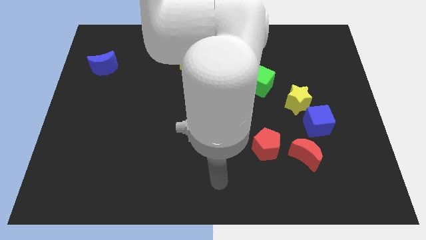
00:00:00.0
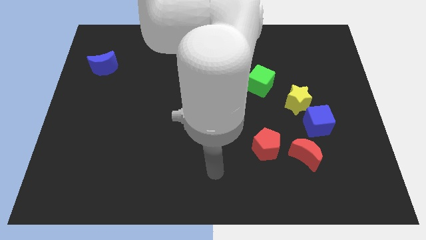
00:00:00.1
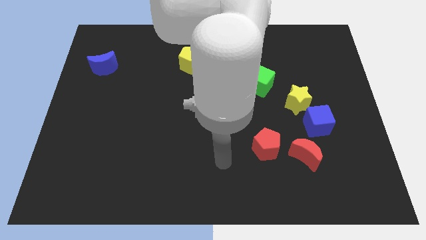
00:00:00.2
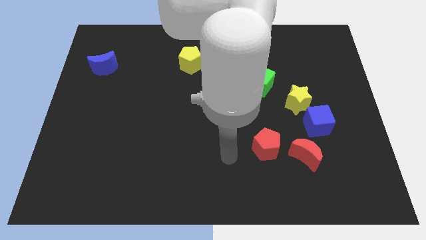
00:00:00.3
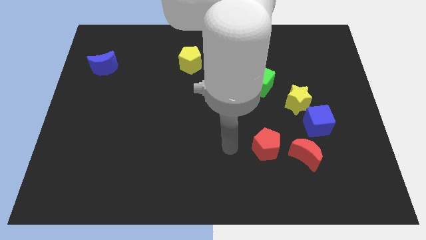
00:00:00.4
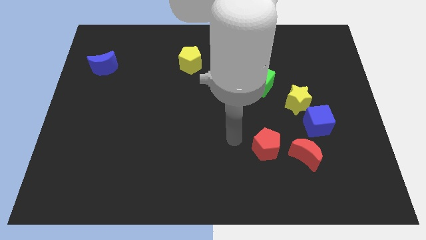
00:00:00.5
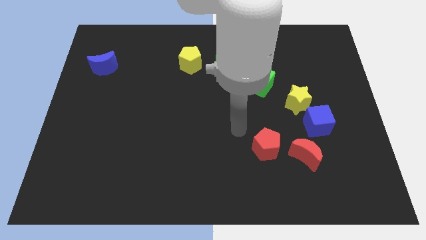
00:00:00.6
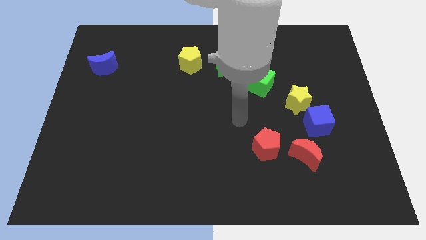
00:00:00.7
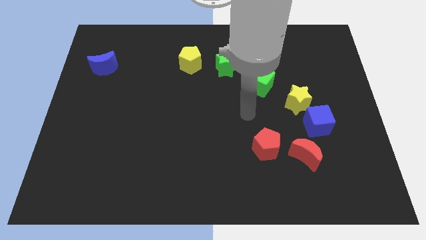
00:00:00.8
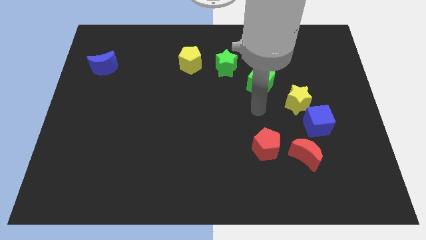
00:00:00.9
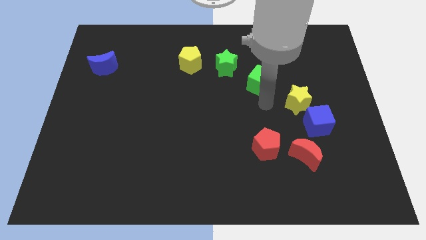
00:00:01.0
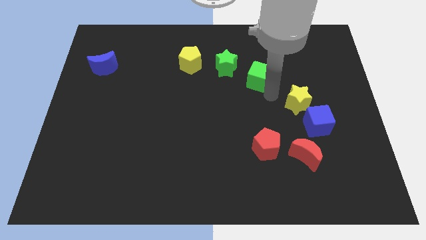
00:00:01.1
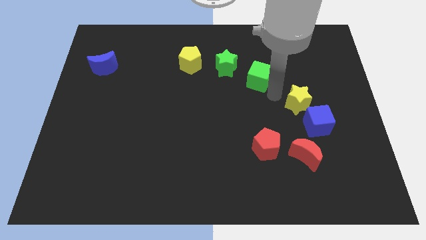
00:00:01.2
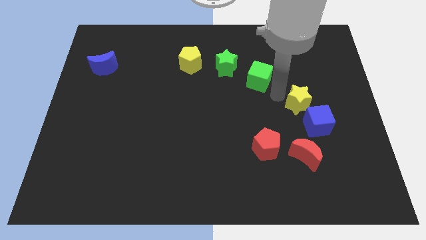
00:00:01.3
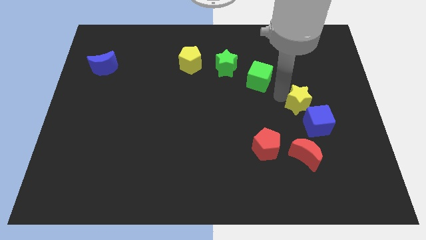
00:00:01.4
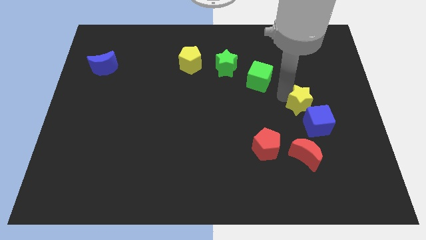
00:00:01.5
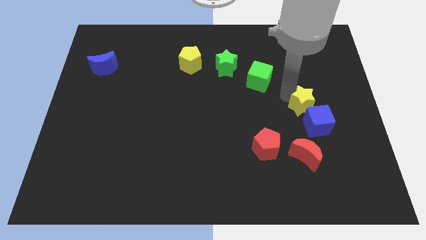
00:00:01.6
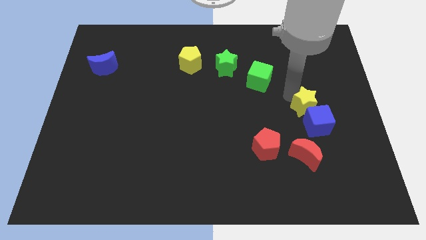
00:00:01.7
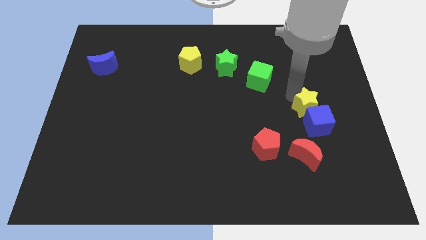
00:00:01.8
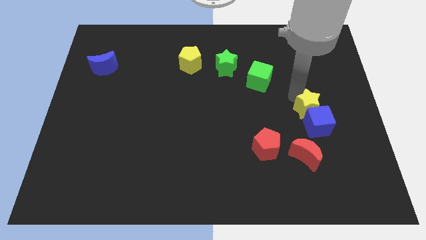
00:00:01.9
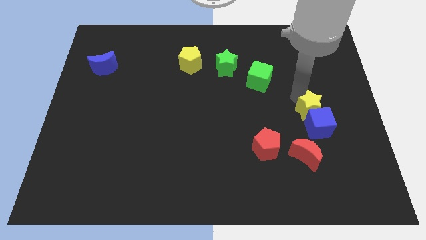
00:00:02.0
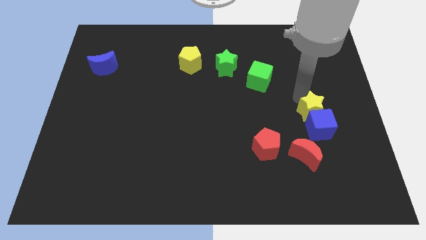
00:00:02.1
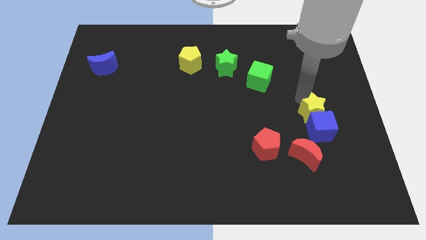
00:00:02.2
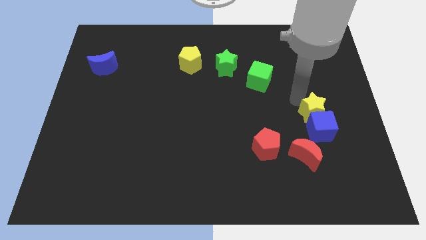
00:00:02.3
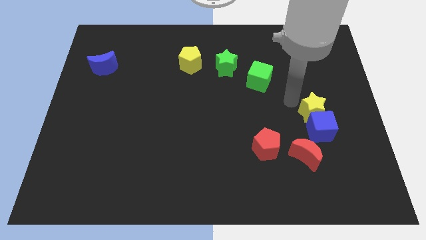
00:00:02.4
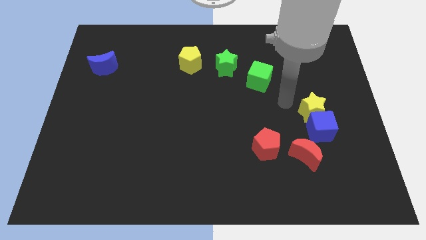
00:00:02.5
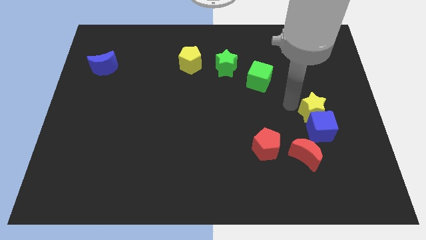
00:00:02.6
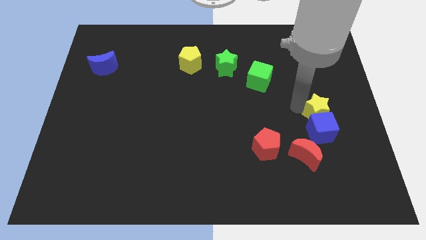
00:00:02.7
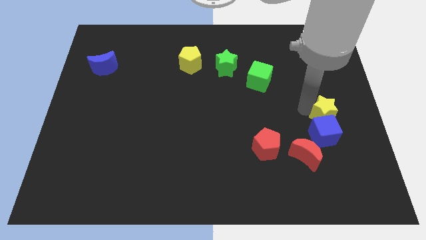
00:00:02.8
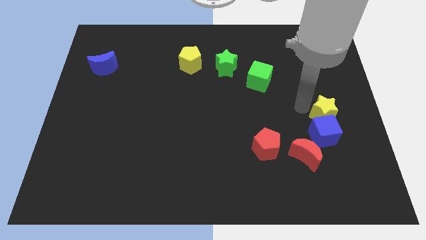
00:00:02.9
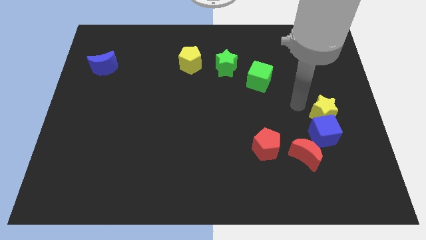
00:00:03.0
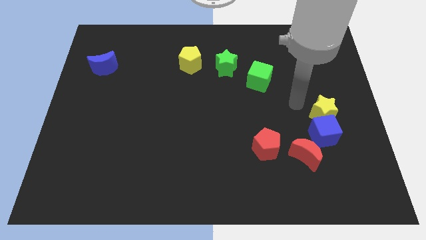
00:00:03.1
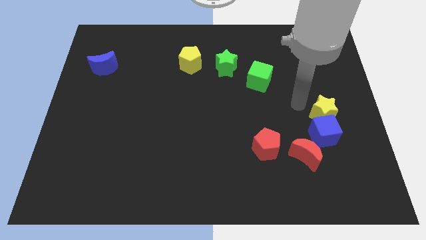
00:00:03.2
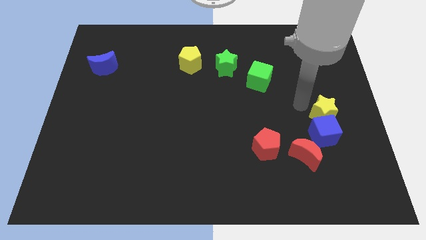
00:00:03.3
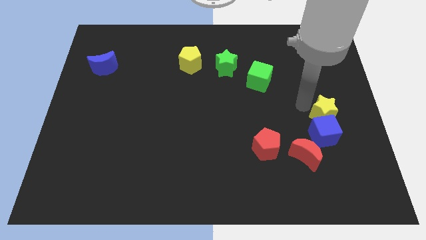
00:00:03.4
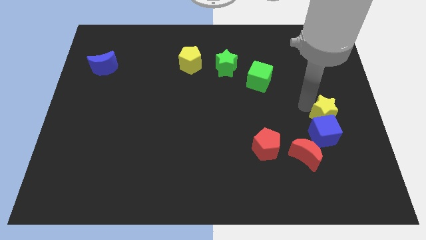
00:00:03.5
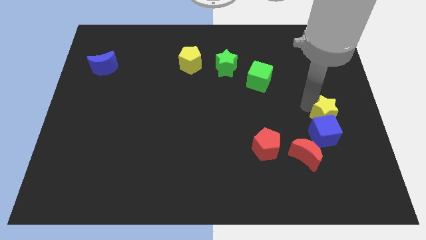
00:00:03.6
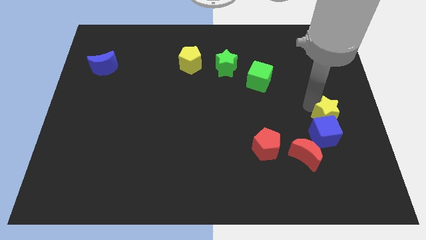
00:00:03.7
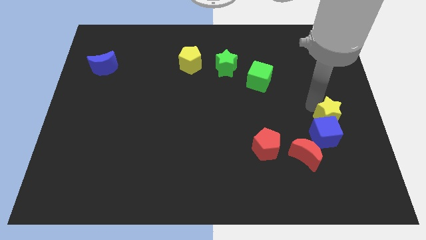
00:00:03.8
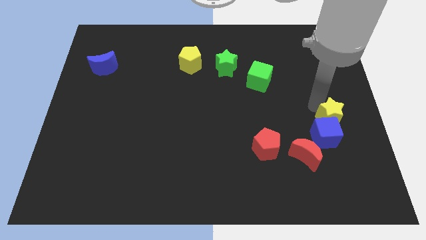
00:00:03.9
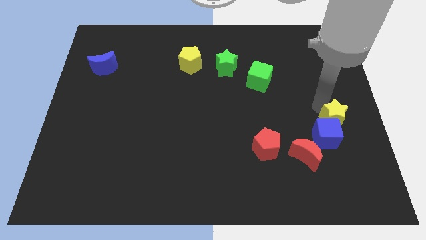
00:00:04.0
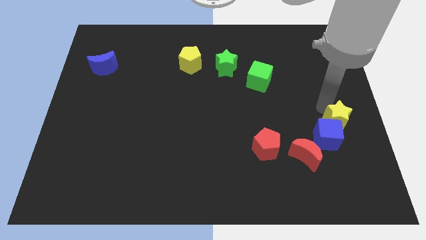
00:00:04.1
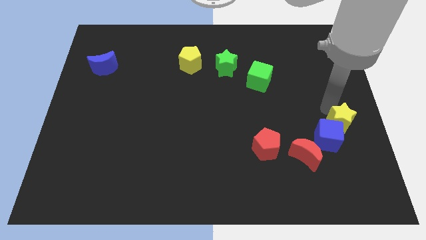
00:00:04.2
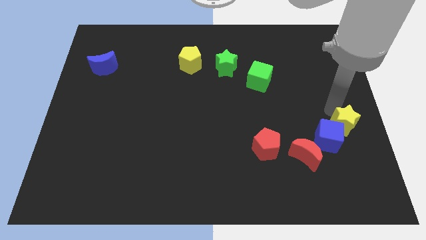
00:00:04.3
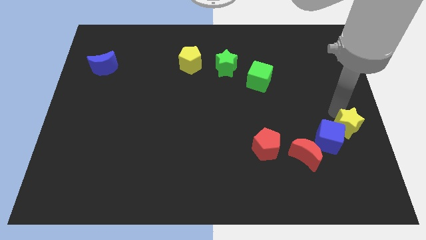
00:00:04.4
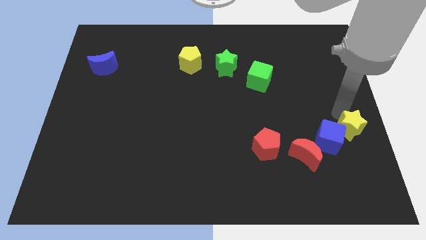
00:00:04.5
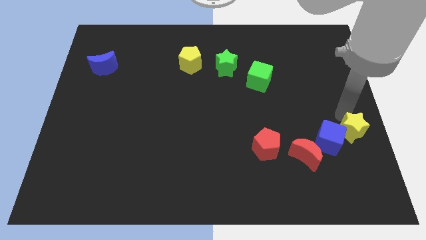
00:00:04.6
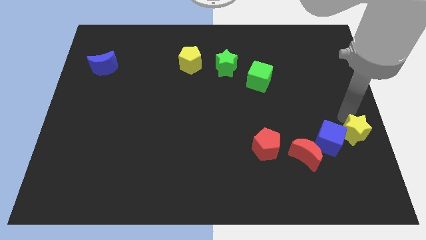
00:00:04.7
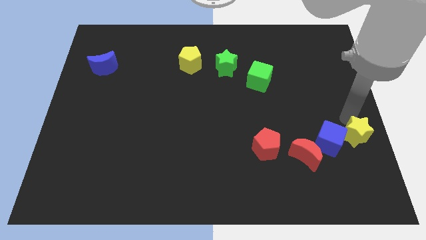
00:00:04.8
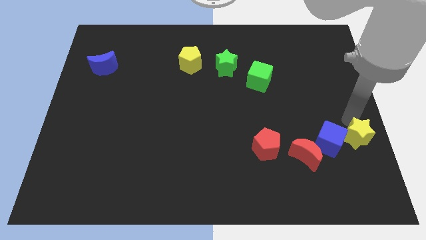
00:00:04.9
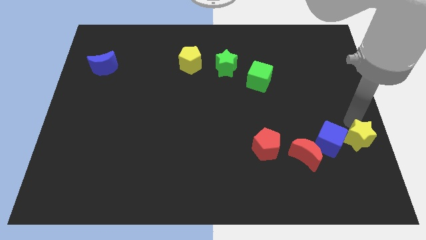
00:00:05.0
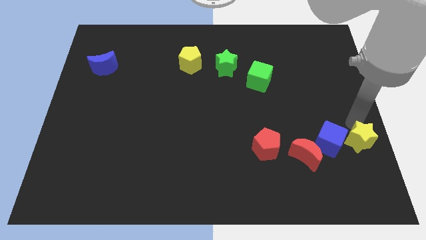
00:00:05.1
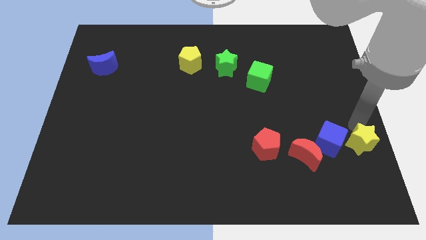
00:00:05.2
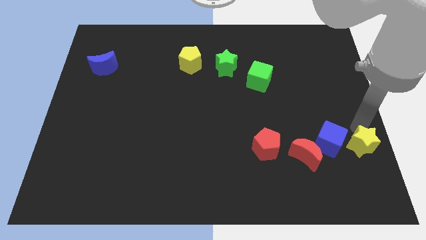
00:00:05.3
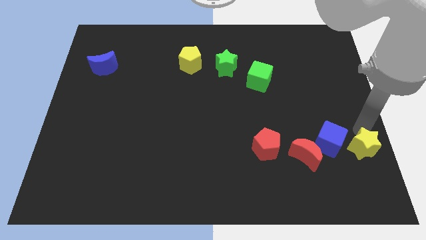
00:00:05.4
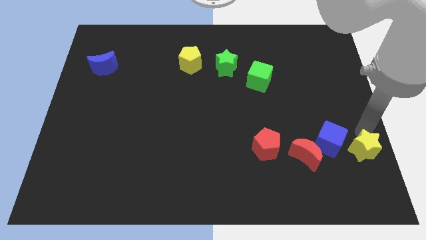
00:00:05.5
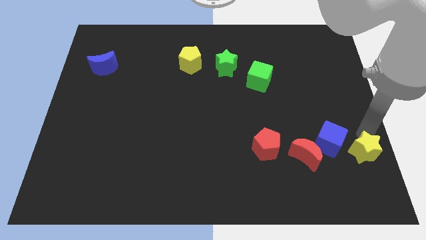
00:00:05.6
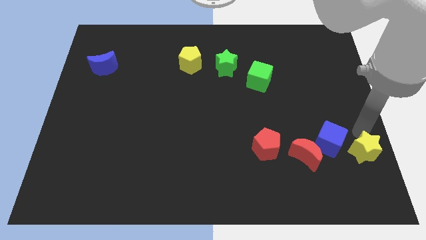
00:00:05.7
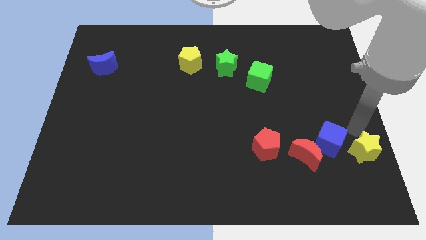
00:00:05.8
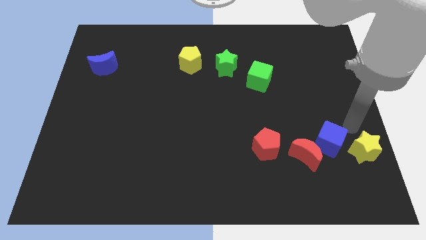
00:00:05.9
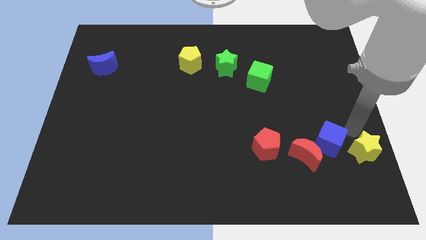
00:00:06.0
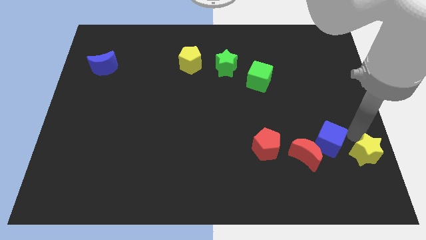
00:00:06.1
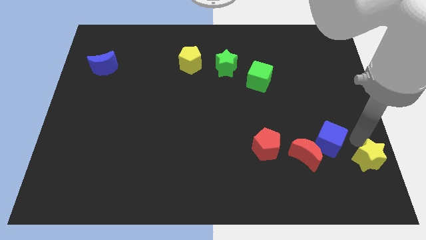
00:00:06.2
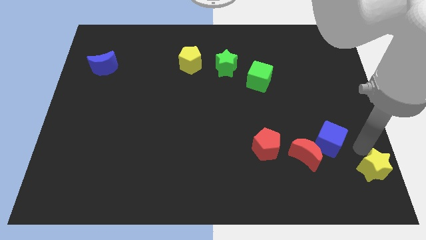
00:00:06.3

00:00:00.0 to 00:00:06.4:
put the yellow star to the bottom right of the board
